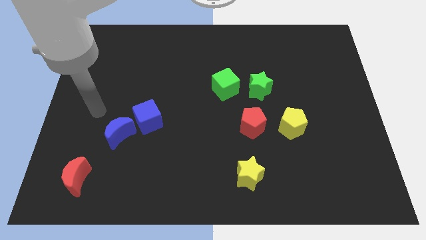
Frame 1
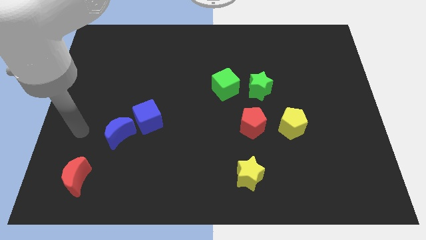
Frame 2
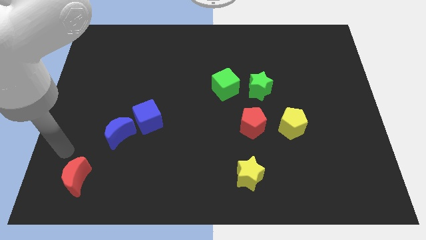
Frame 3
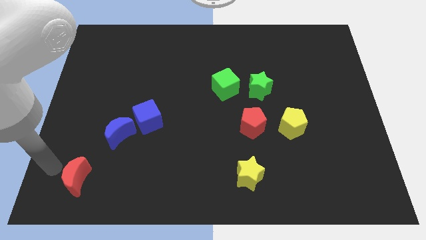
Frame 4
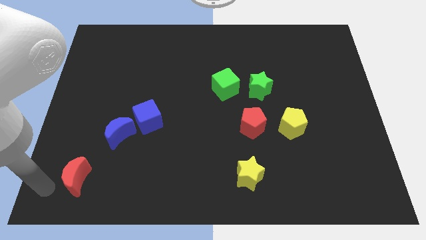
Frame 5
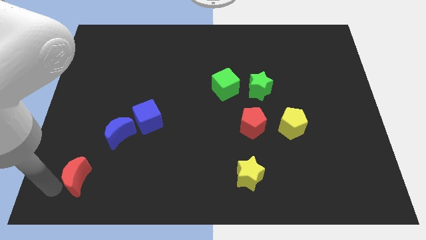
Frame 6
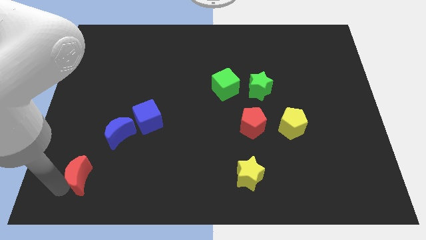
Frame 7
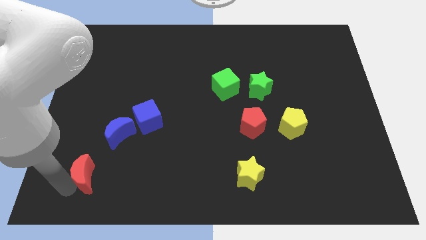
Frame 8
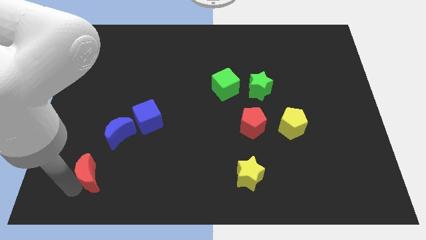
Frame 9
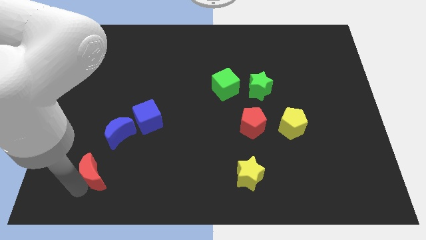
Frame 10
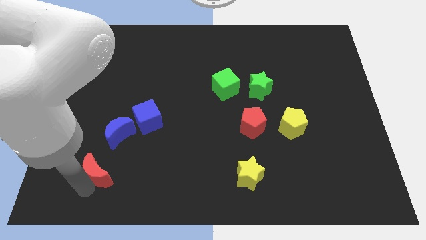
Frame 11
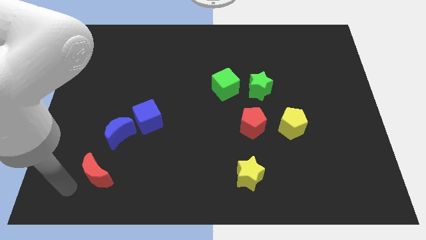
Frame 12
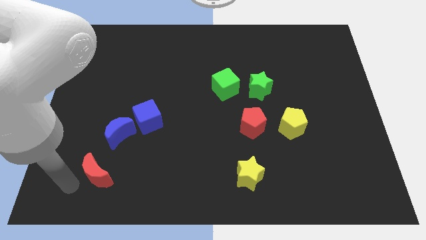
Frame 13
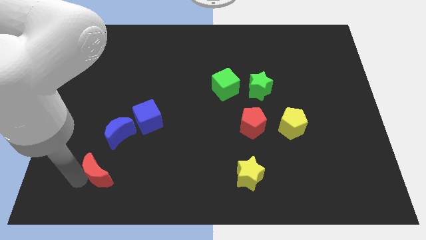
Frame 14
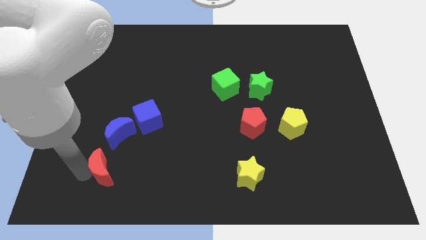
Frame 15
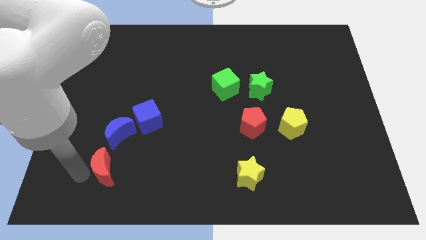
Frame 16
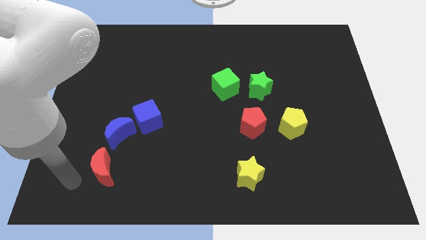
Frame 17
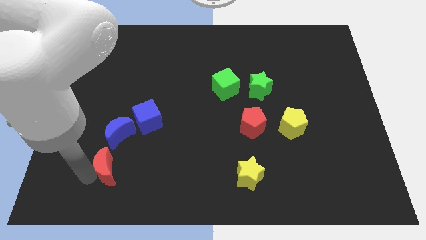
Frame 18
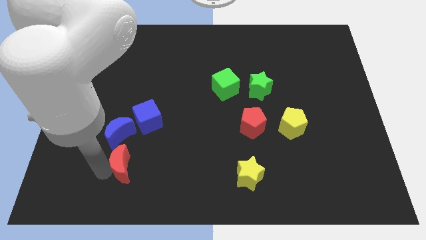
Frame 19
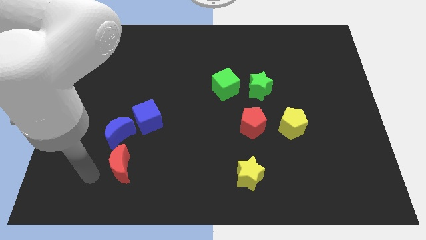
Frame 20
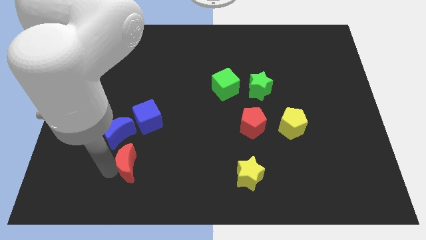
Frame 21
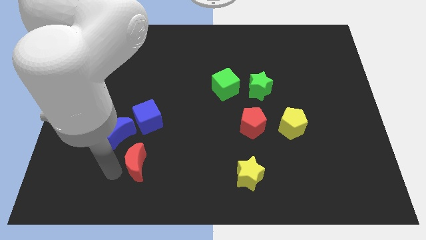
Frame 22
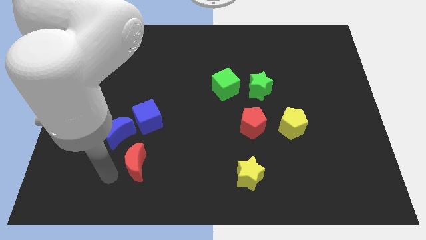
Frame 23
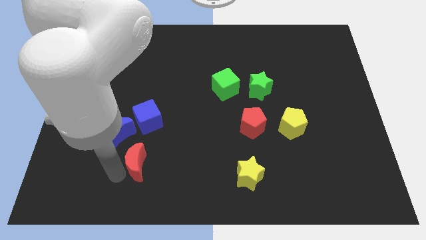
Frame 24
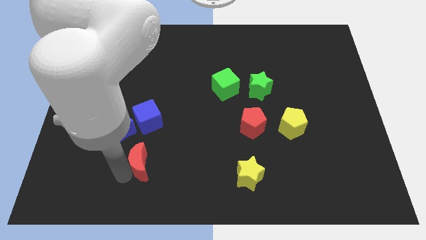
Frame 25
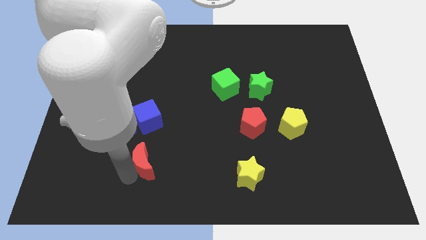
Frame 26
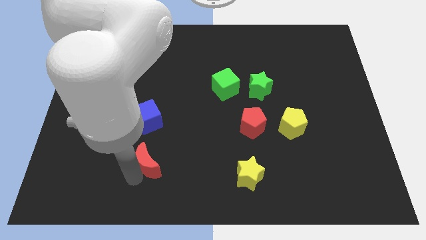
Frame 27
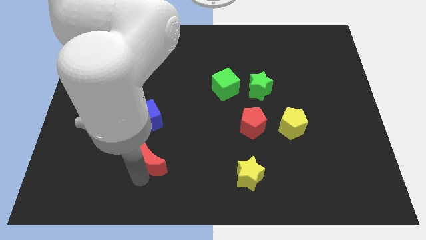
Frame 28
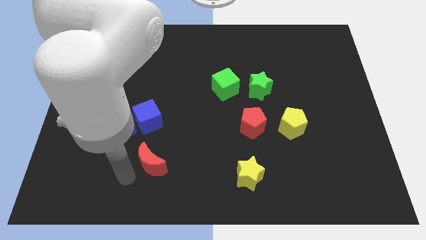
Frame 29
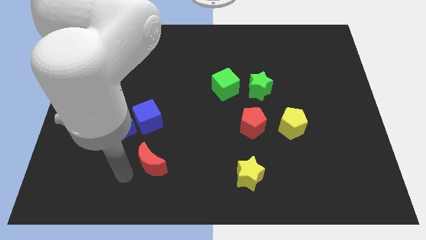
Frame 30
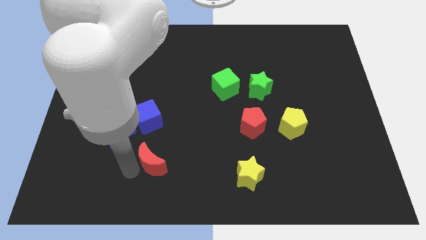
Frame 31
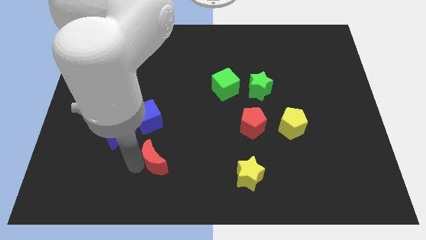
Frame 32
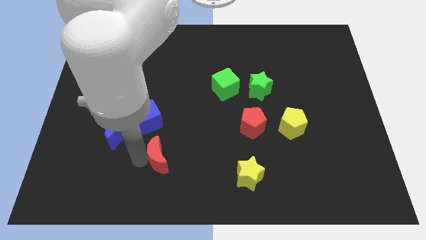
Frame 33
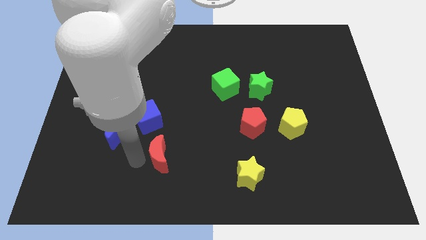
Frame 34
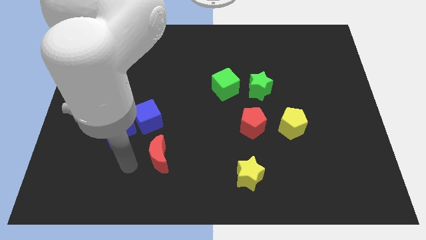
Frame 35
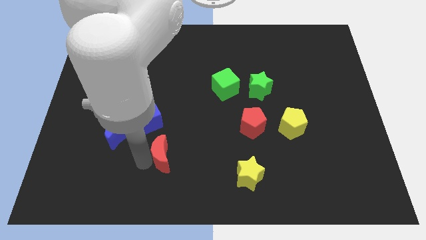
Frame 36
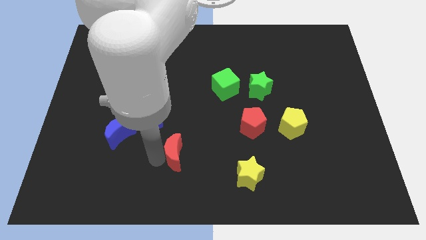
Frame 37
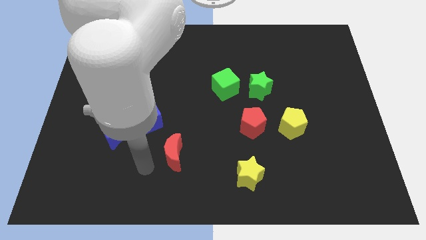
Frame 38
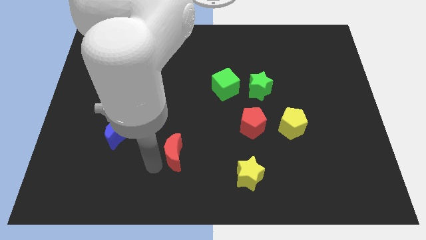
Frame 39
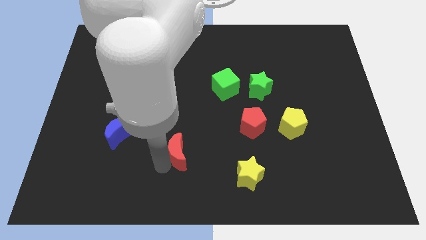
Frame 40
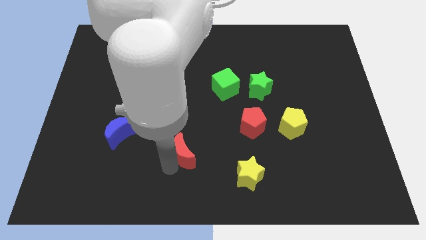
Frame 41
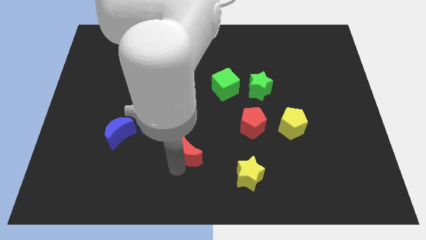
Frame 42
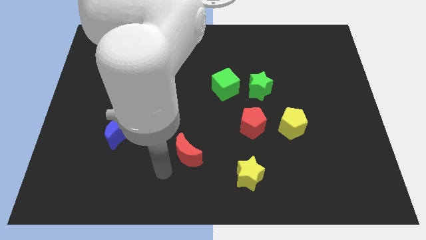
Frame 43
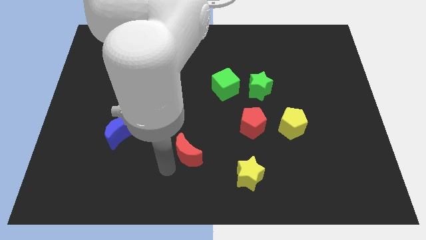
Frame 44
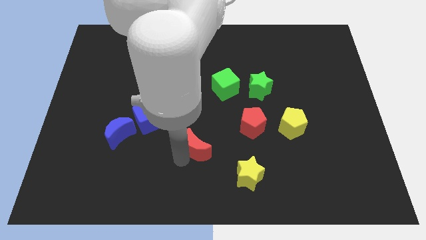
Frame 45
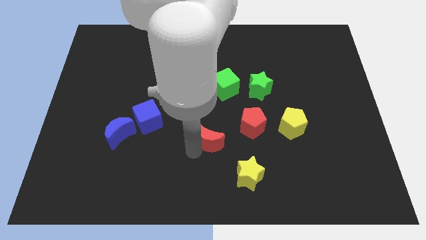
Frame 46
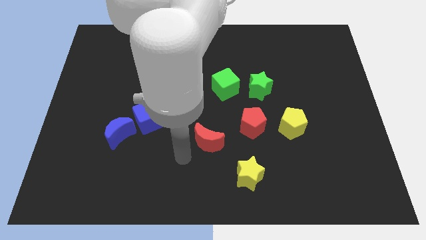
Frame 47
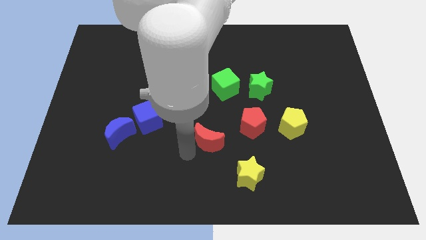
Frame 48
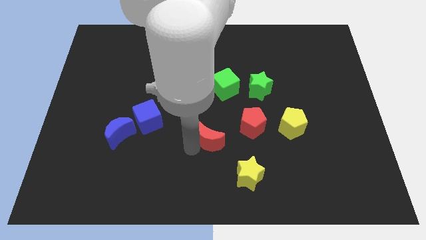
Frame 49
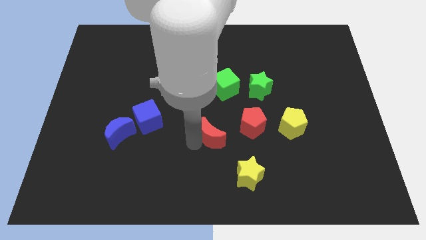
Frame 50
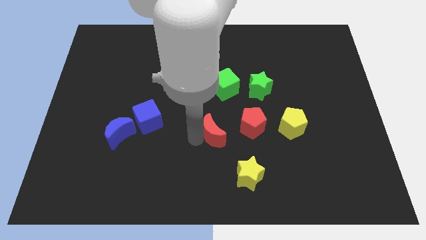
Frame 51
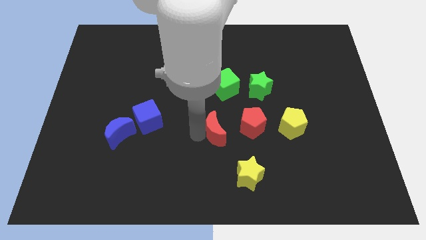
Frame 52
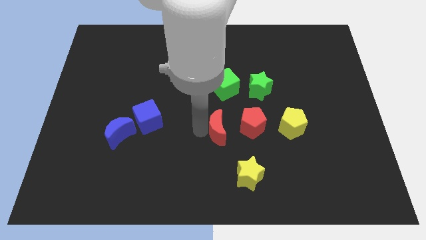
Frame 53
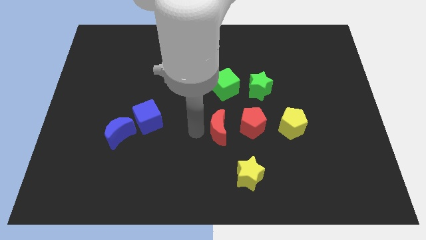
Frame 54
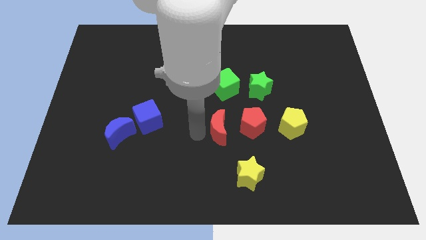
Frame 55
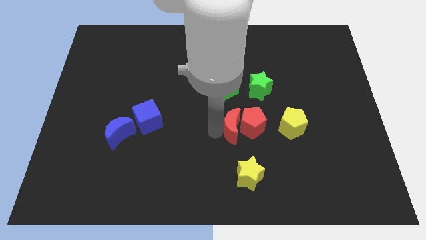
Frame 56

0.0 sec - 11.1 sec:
push the red moon next to the red pentagon

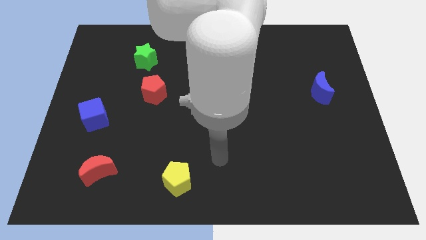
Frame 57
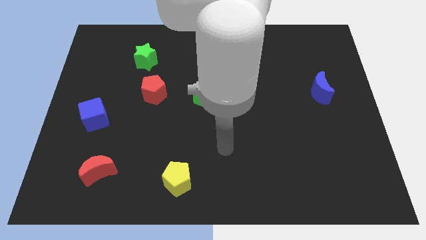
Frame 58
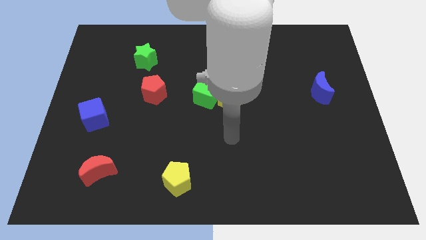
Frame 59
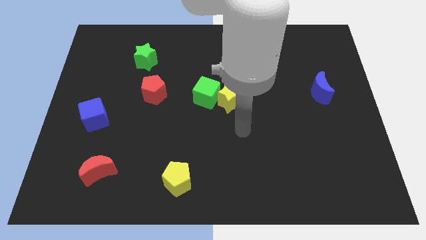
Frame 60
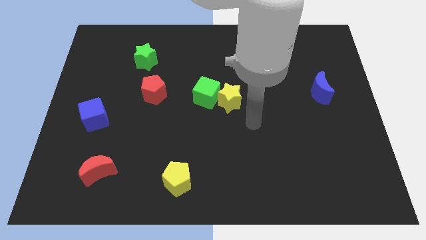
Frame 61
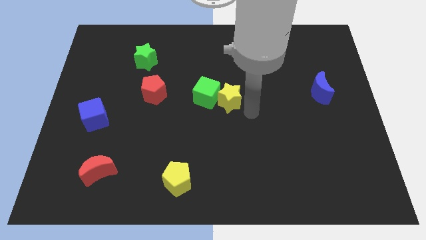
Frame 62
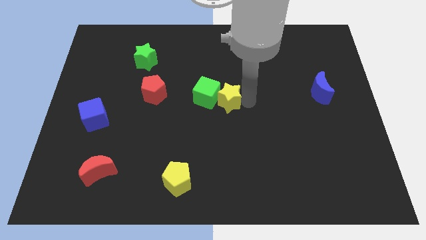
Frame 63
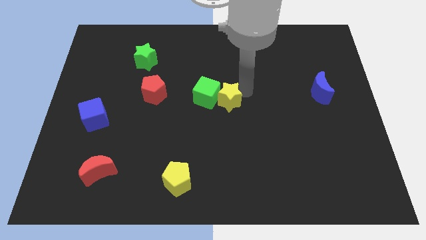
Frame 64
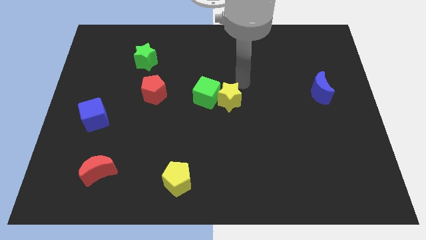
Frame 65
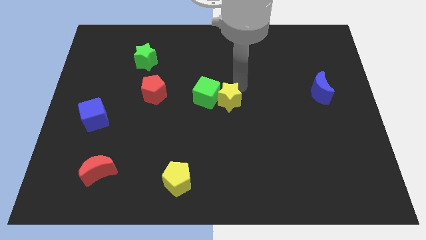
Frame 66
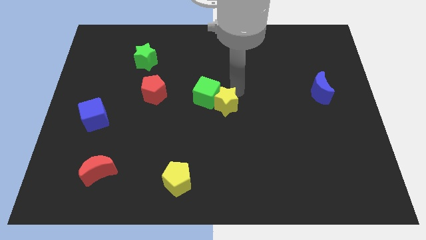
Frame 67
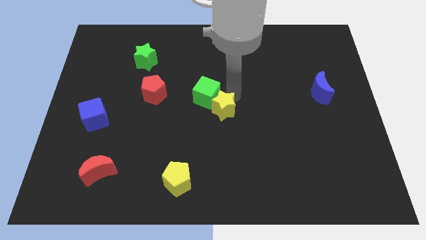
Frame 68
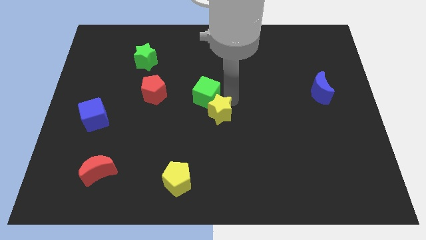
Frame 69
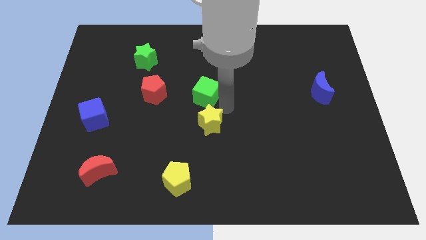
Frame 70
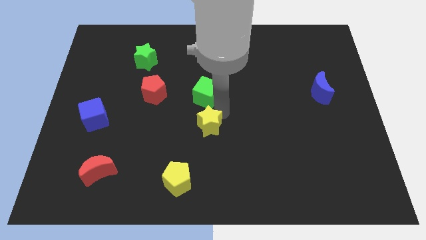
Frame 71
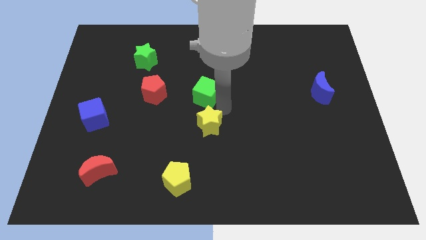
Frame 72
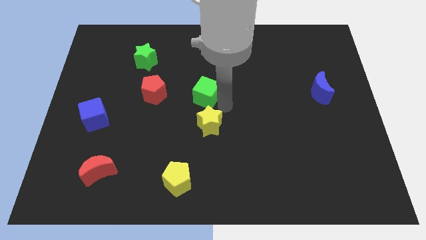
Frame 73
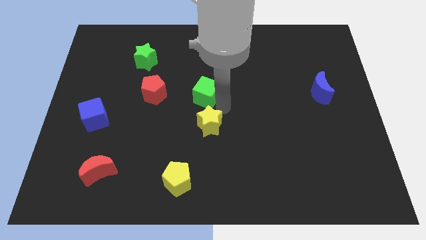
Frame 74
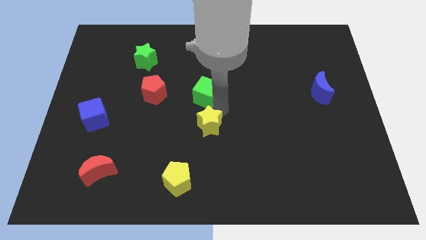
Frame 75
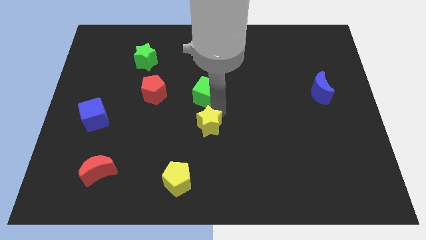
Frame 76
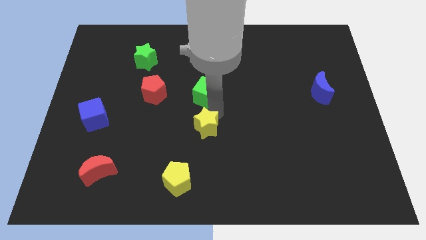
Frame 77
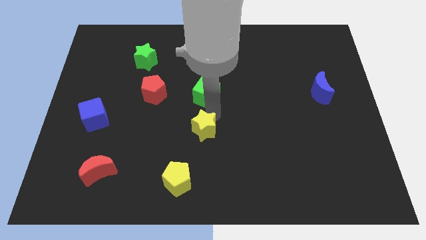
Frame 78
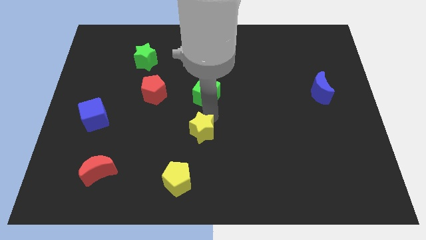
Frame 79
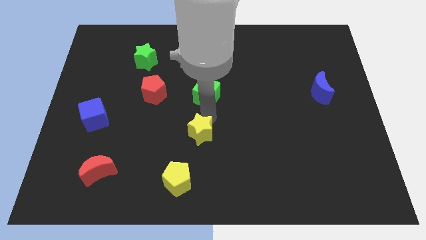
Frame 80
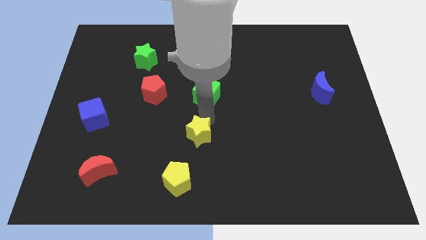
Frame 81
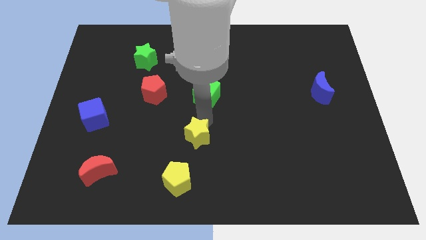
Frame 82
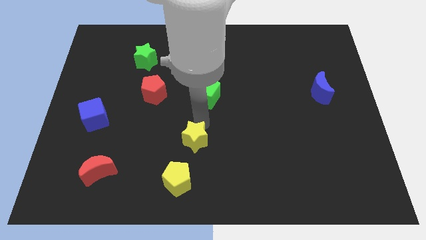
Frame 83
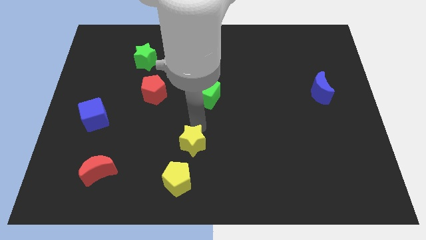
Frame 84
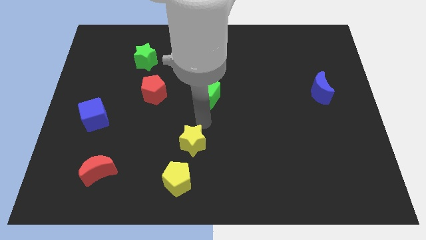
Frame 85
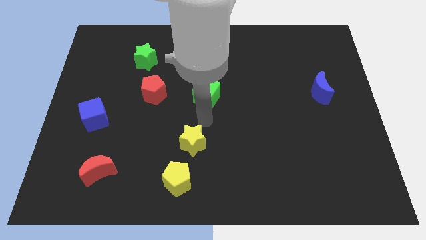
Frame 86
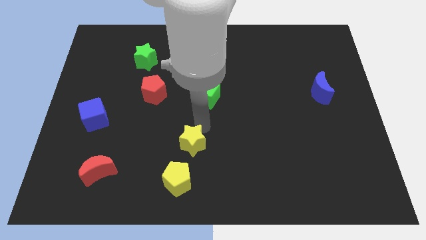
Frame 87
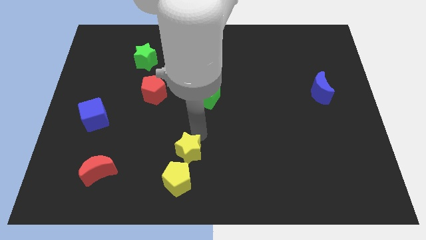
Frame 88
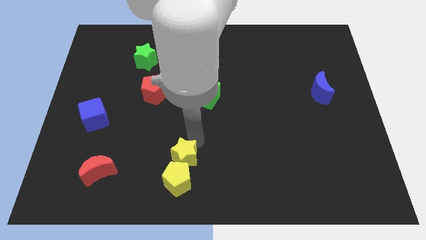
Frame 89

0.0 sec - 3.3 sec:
slide the yellow star close to the yellow pentagon
